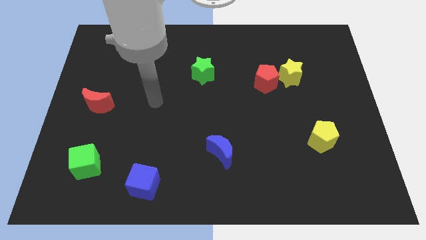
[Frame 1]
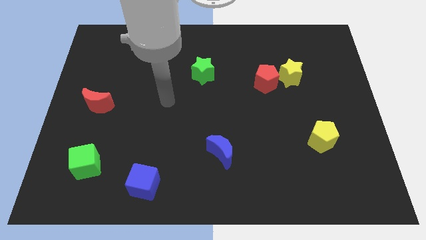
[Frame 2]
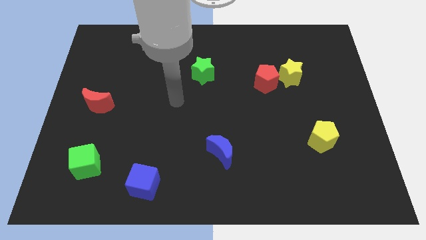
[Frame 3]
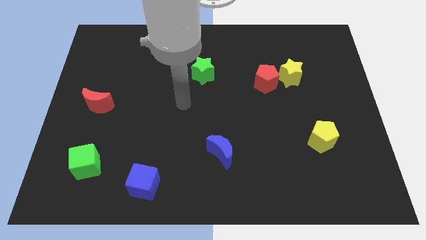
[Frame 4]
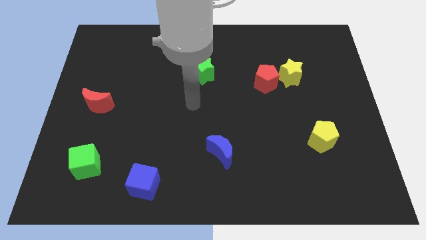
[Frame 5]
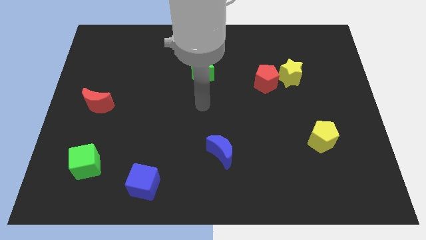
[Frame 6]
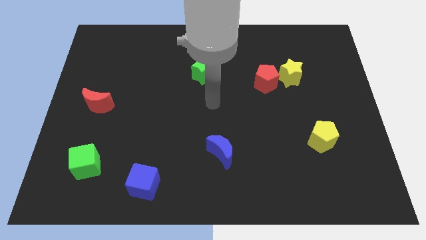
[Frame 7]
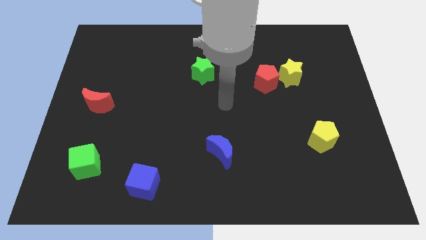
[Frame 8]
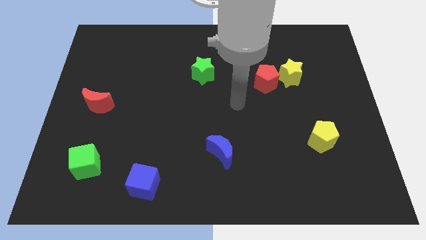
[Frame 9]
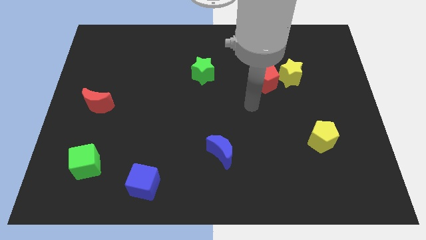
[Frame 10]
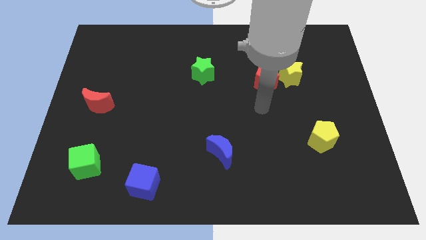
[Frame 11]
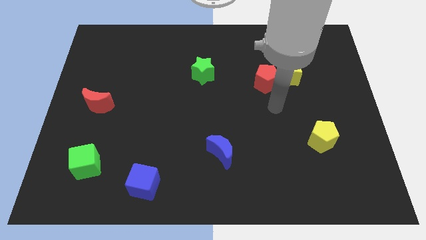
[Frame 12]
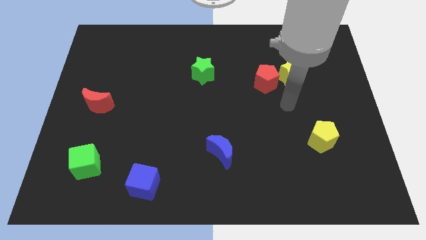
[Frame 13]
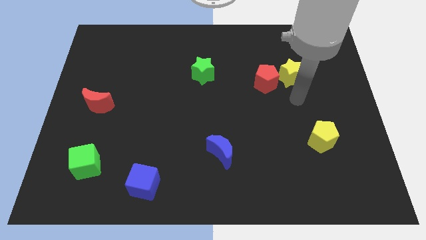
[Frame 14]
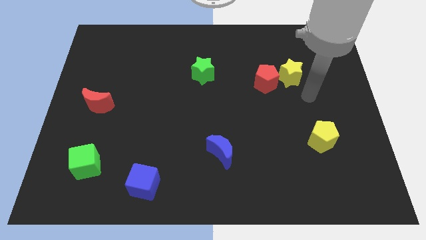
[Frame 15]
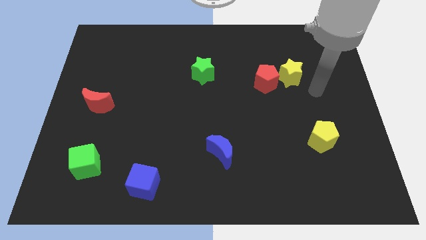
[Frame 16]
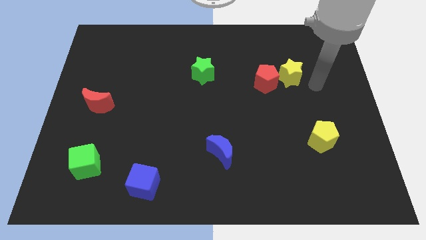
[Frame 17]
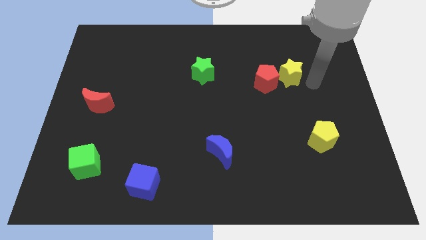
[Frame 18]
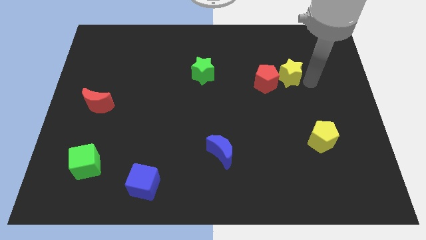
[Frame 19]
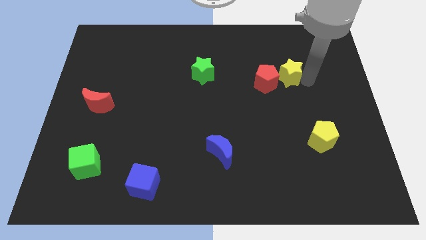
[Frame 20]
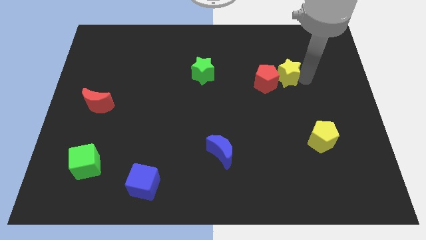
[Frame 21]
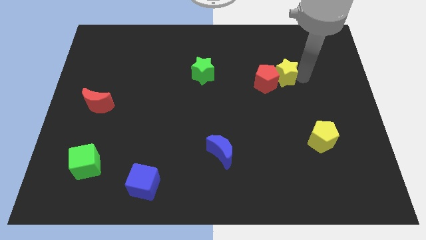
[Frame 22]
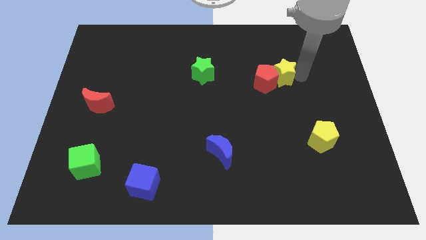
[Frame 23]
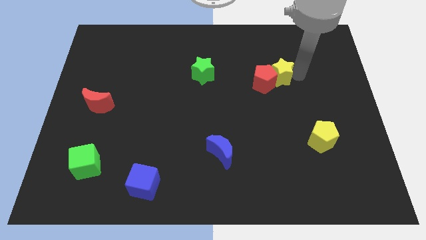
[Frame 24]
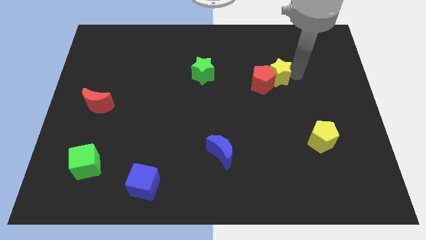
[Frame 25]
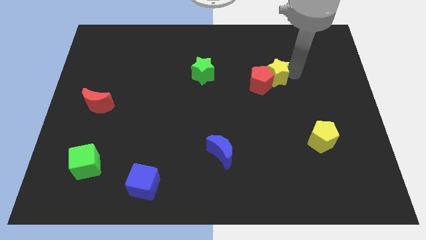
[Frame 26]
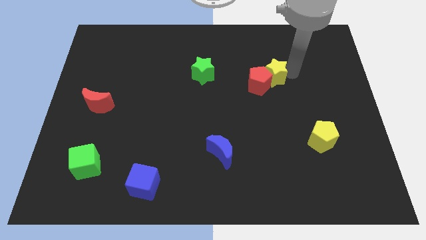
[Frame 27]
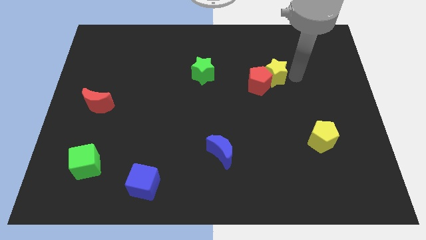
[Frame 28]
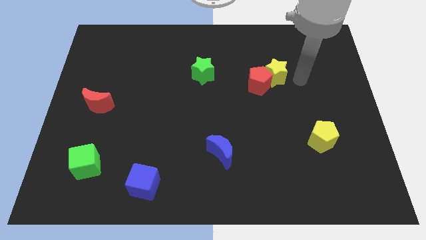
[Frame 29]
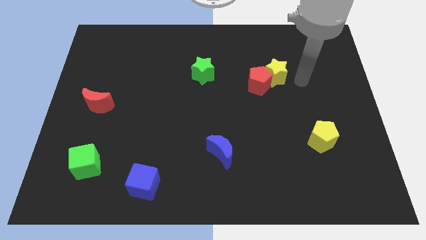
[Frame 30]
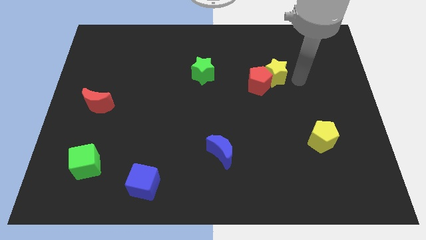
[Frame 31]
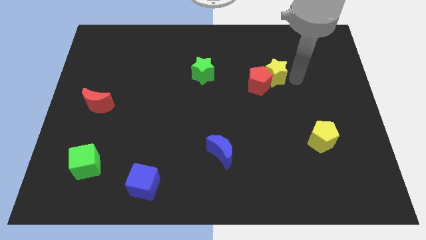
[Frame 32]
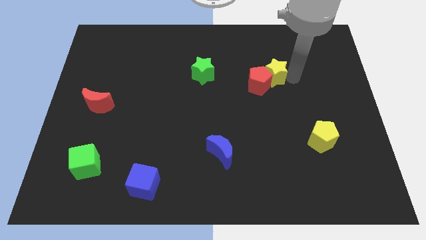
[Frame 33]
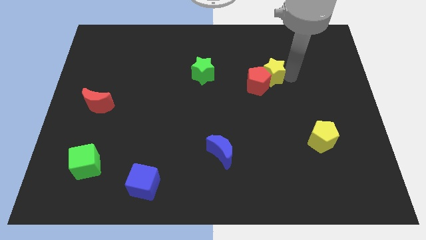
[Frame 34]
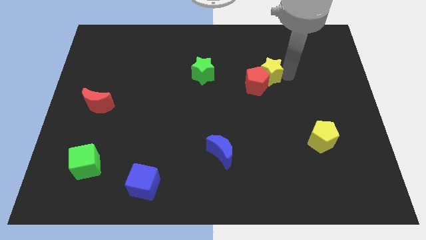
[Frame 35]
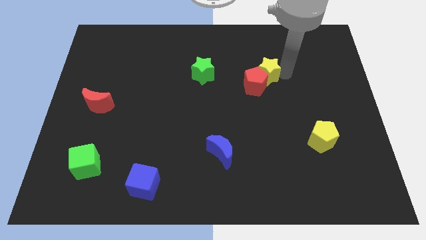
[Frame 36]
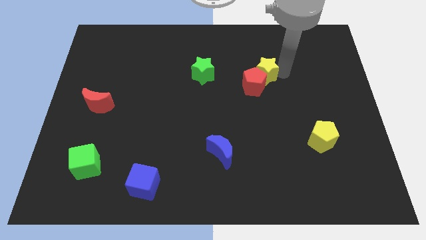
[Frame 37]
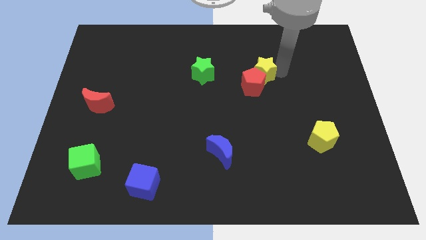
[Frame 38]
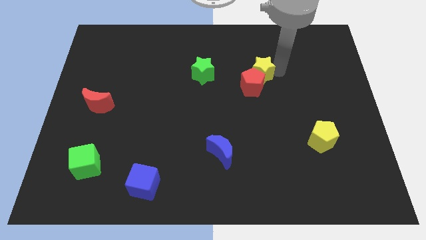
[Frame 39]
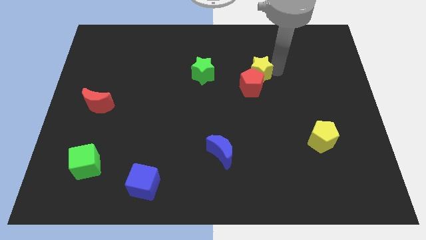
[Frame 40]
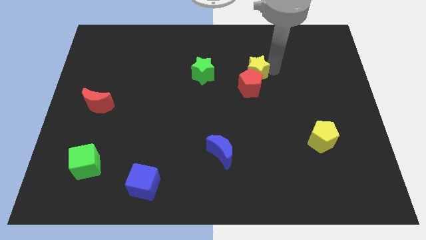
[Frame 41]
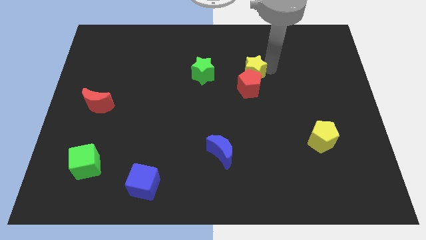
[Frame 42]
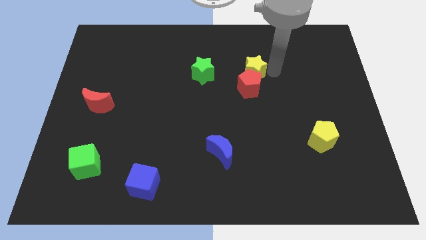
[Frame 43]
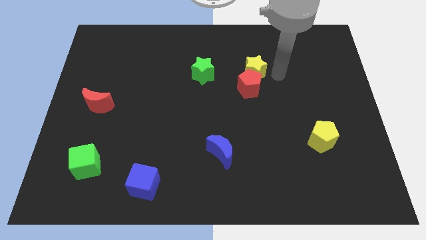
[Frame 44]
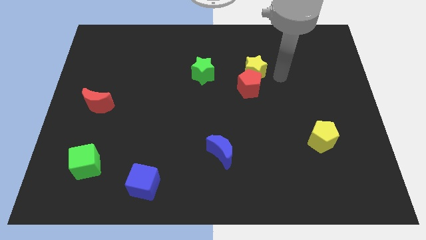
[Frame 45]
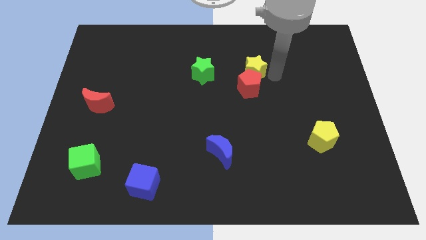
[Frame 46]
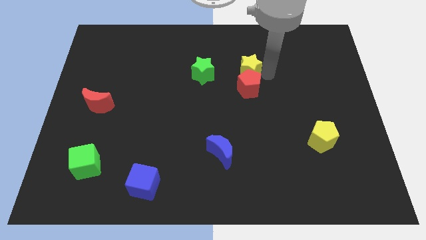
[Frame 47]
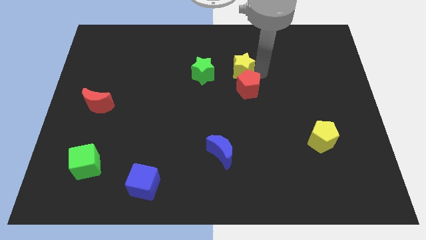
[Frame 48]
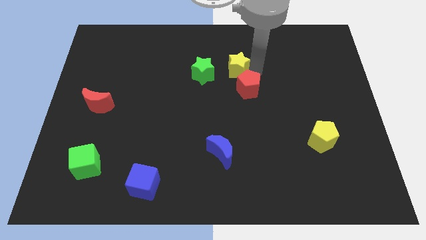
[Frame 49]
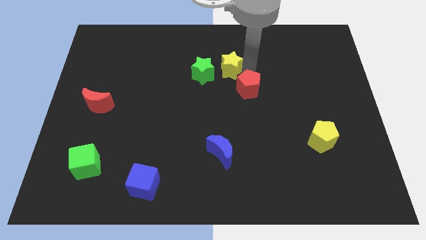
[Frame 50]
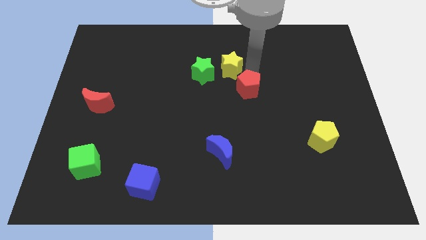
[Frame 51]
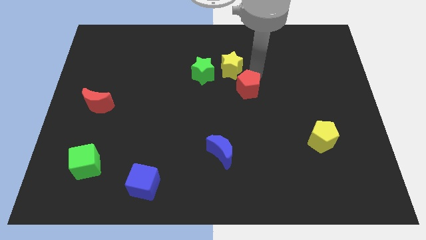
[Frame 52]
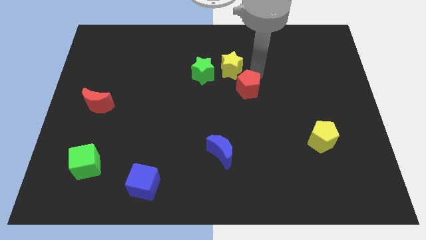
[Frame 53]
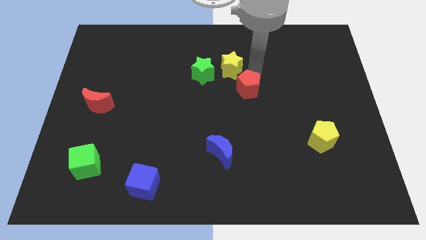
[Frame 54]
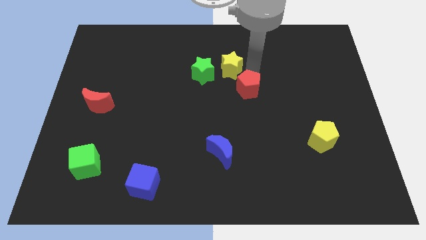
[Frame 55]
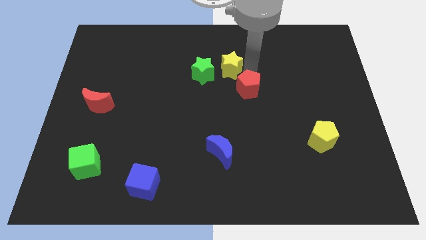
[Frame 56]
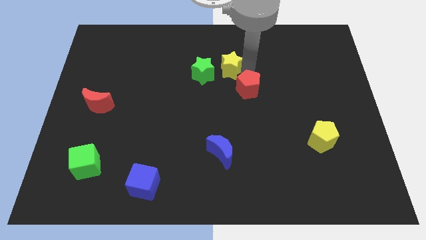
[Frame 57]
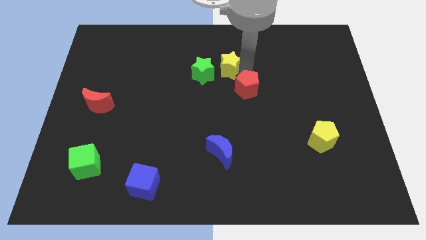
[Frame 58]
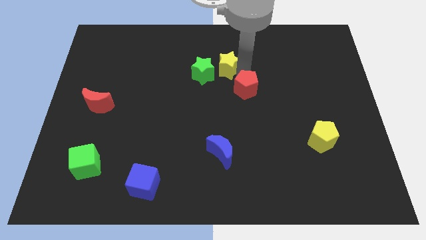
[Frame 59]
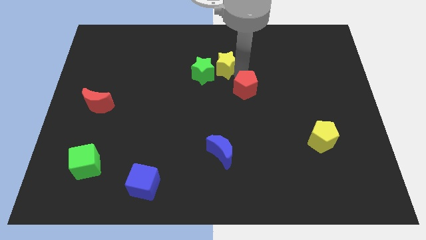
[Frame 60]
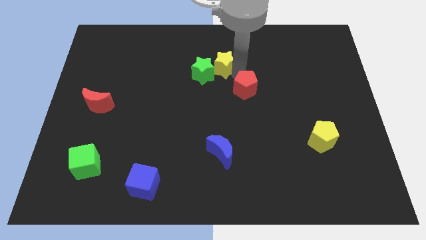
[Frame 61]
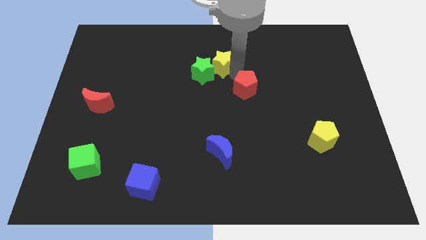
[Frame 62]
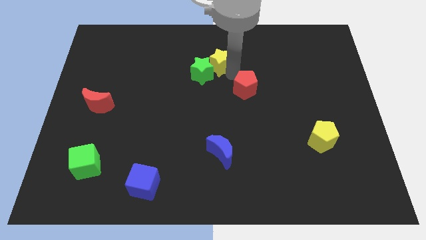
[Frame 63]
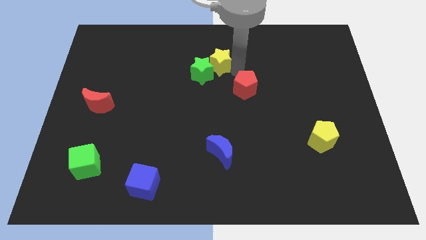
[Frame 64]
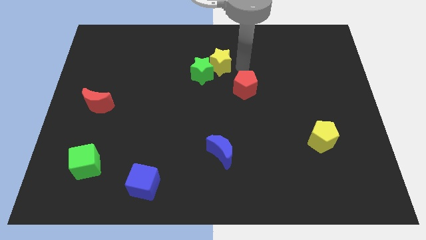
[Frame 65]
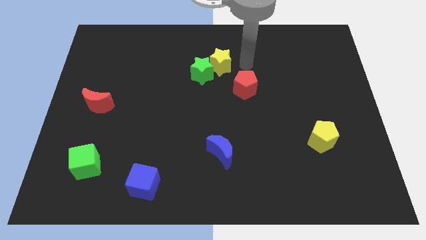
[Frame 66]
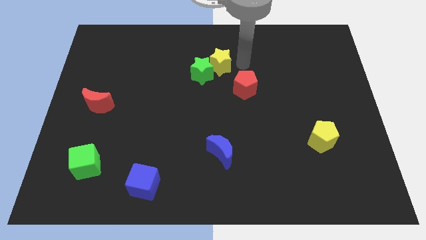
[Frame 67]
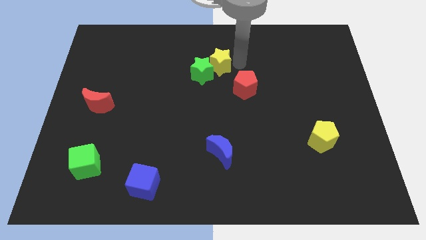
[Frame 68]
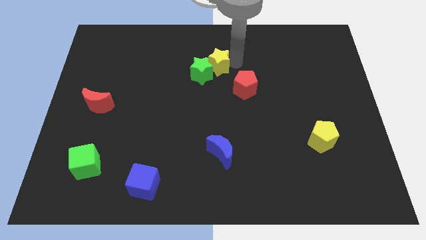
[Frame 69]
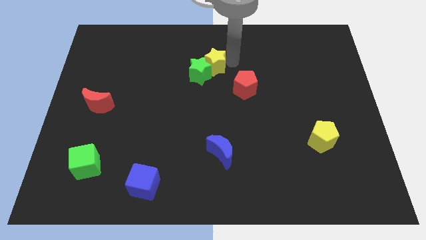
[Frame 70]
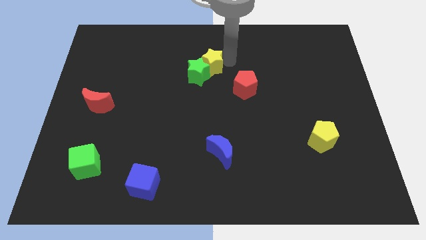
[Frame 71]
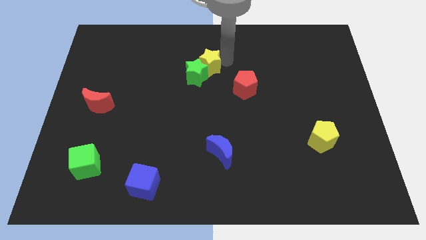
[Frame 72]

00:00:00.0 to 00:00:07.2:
move the yellow star to the left

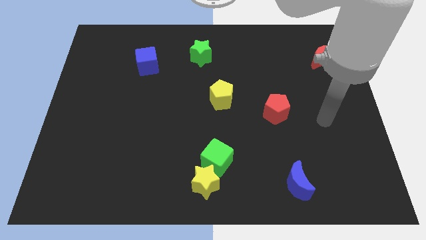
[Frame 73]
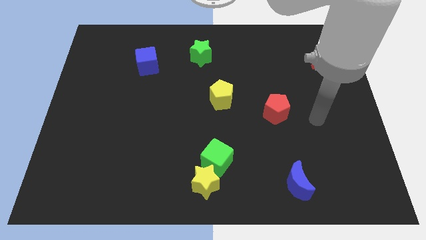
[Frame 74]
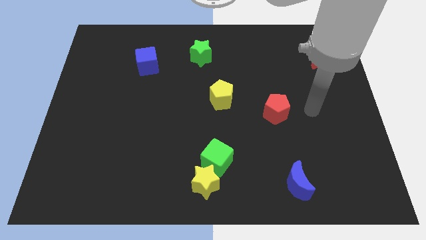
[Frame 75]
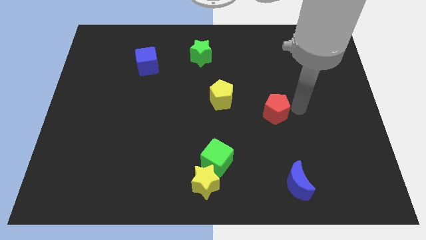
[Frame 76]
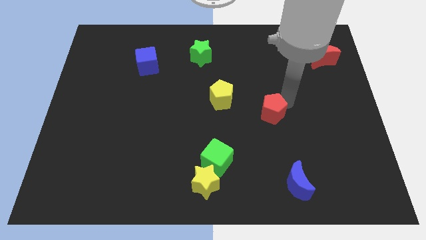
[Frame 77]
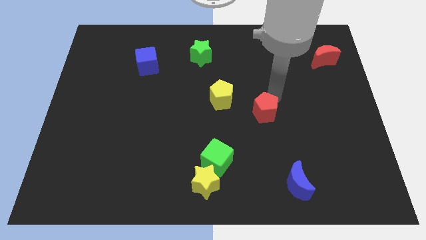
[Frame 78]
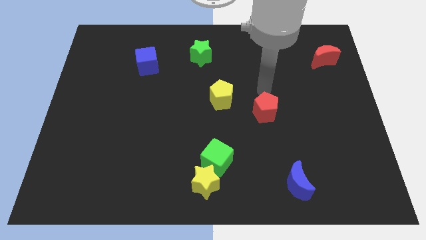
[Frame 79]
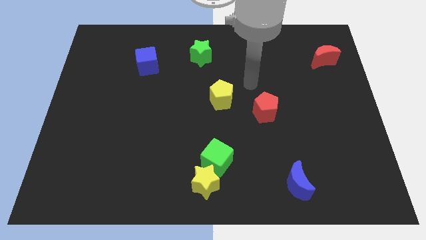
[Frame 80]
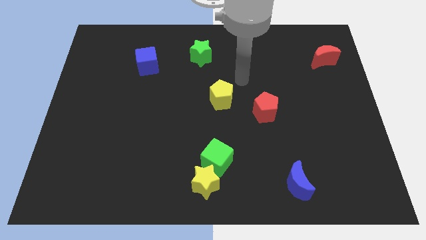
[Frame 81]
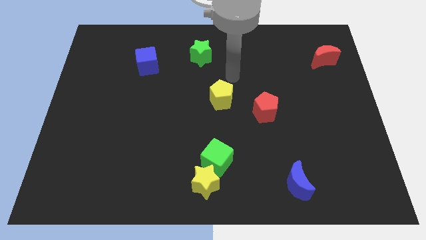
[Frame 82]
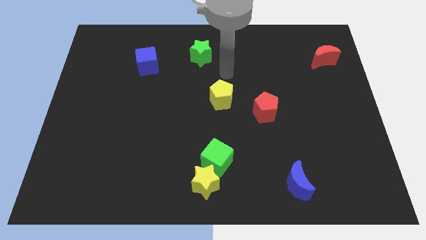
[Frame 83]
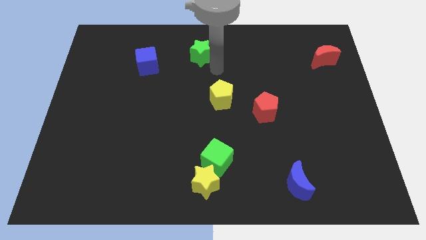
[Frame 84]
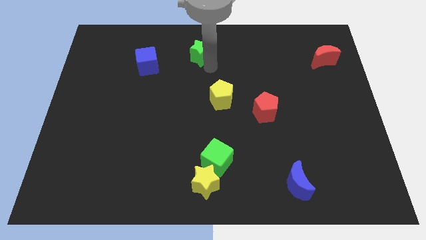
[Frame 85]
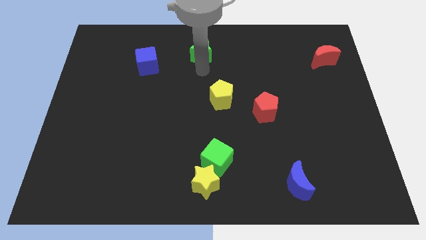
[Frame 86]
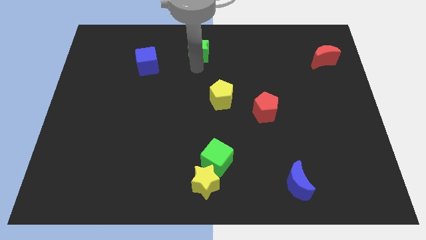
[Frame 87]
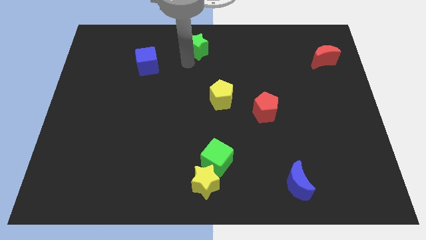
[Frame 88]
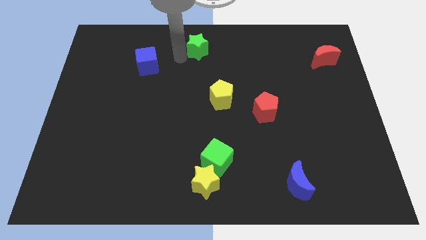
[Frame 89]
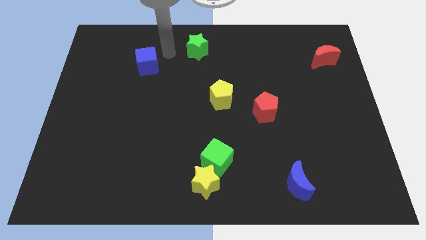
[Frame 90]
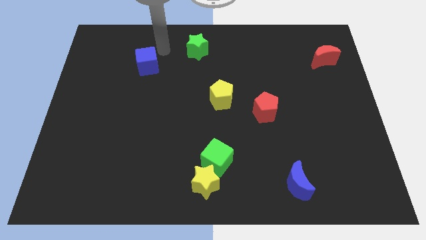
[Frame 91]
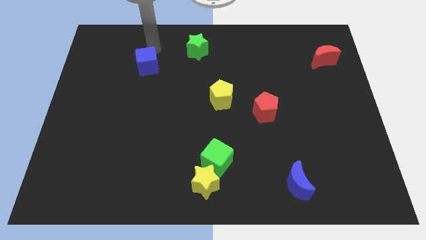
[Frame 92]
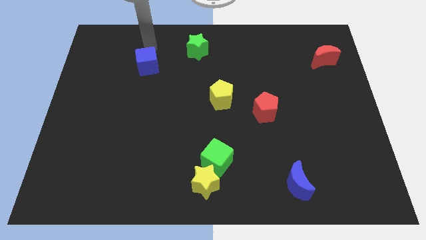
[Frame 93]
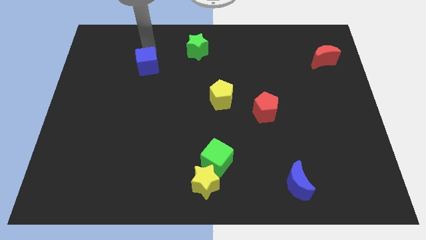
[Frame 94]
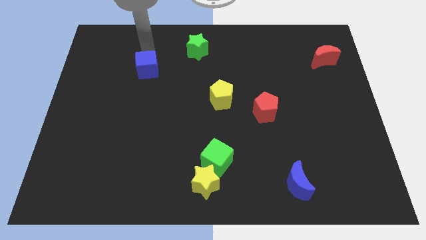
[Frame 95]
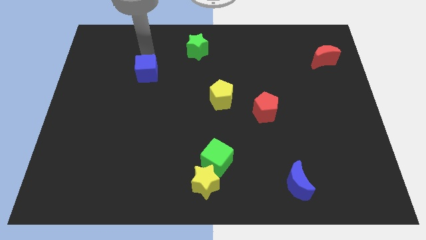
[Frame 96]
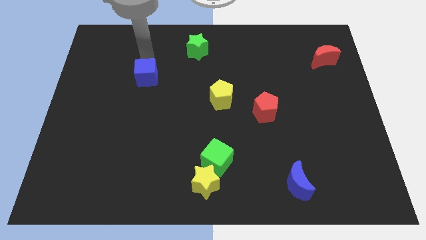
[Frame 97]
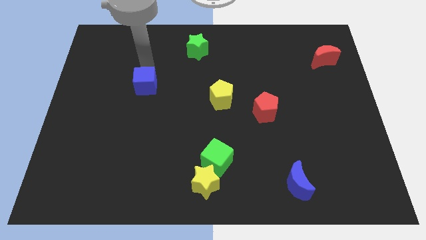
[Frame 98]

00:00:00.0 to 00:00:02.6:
slightly push the blue cube down
